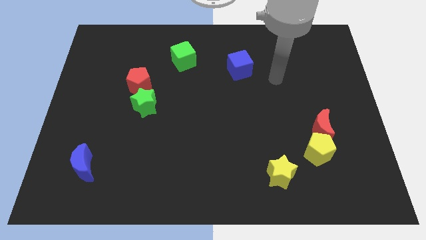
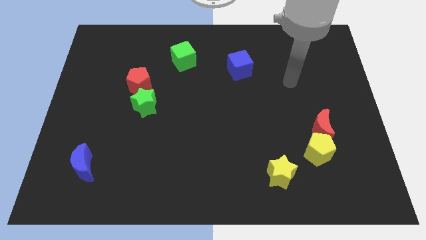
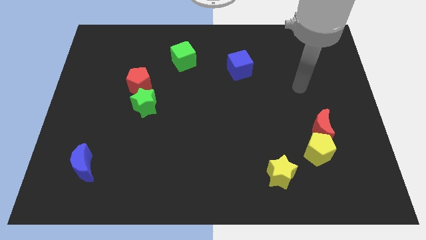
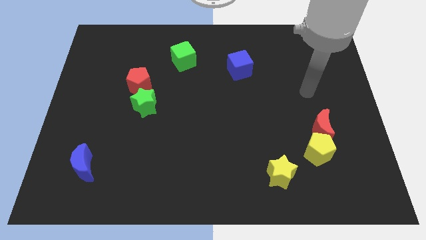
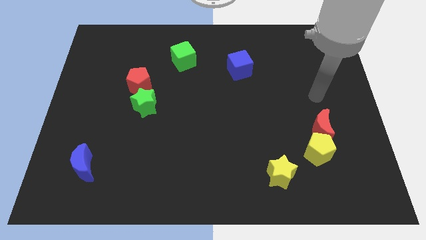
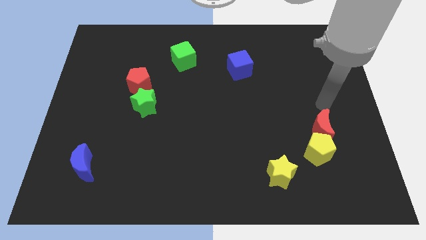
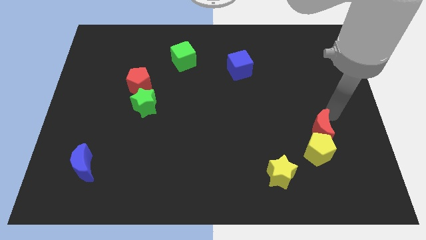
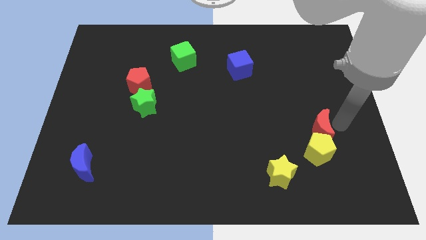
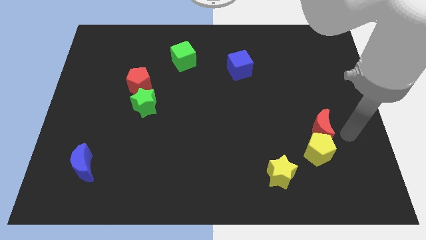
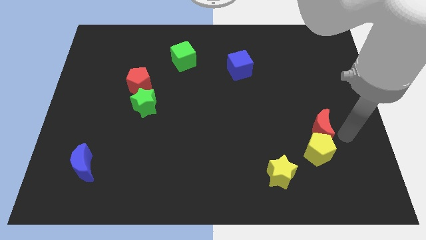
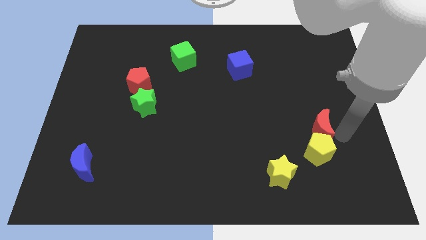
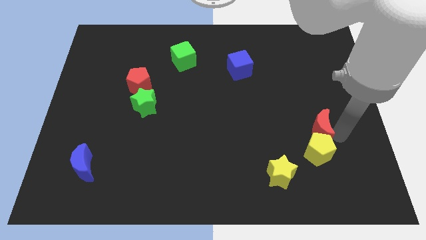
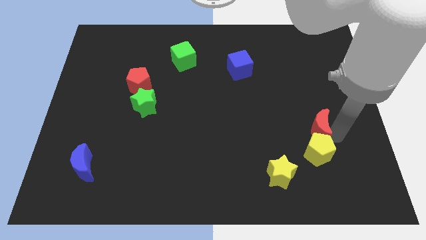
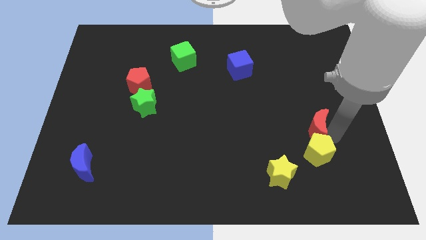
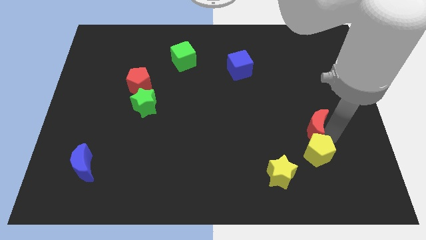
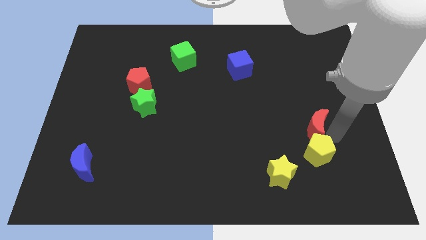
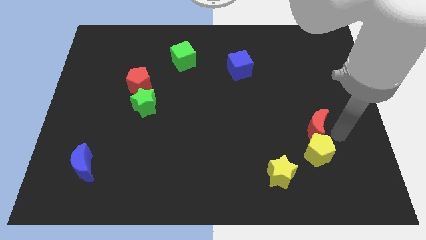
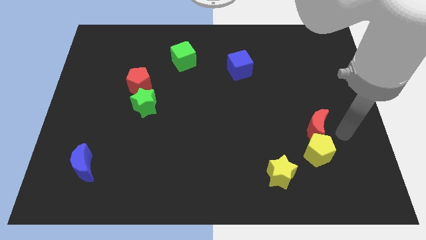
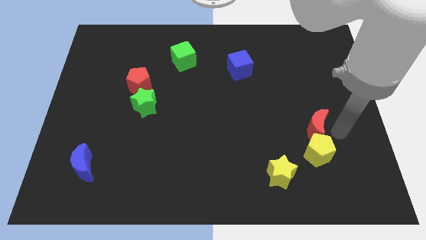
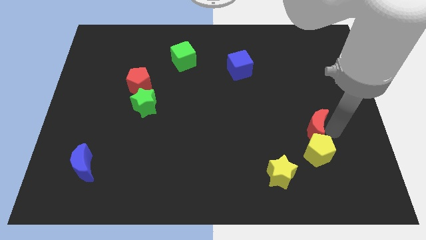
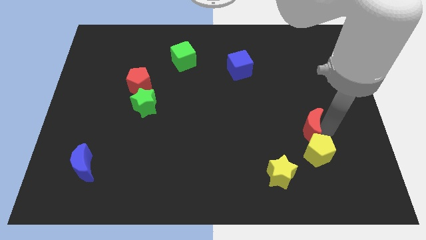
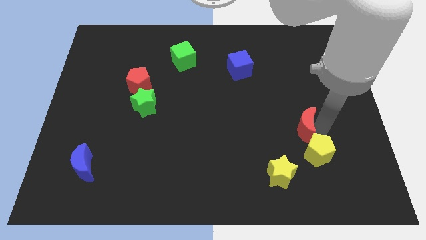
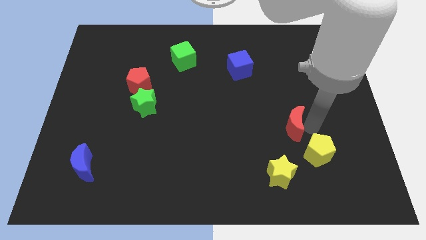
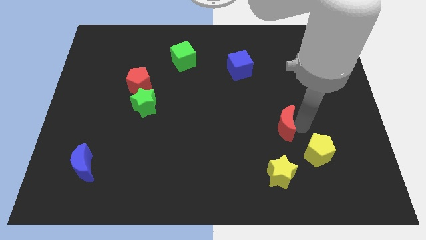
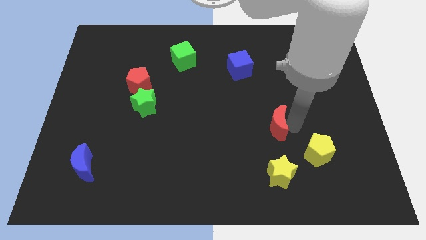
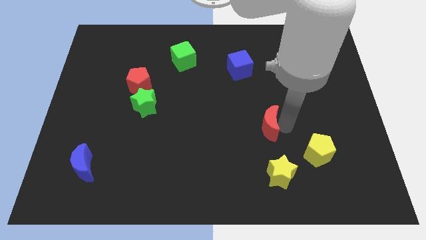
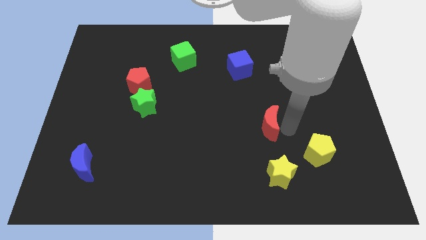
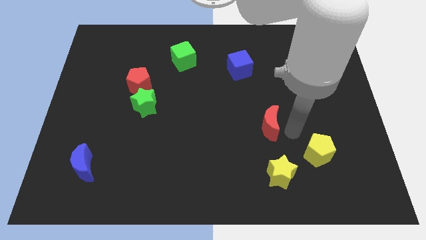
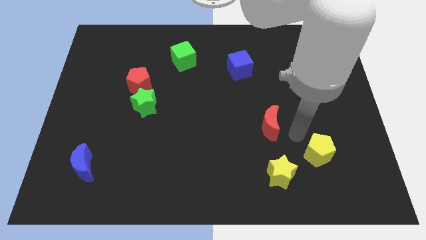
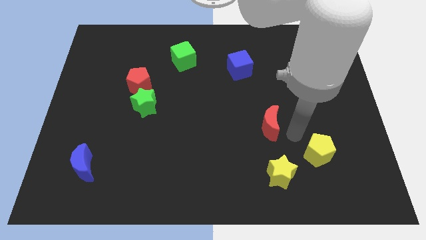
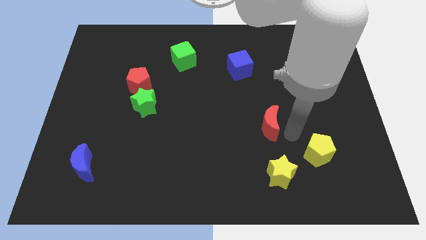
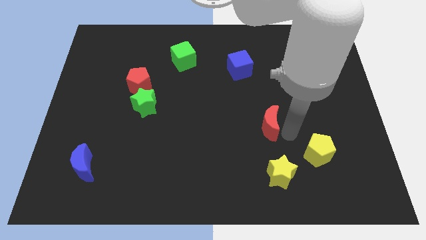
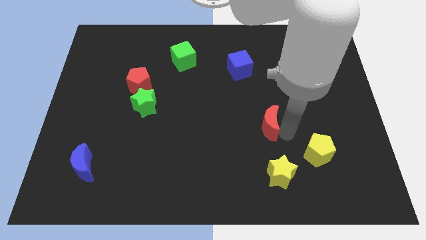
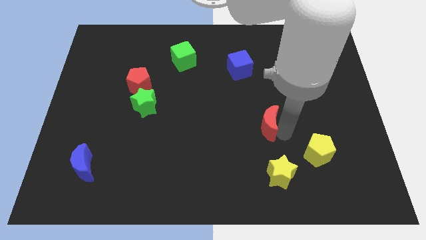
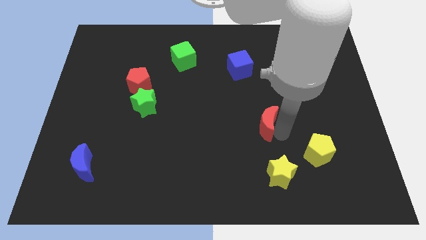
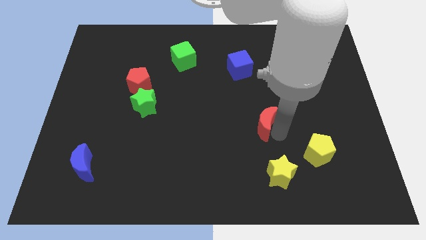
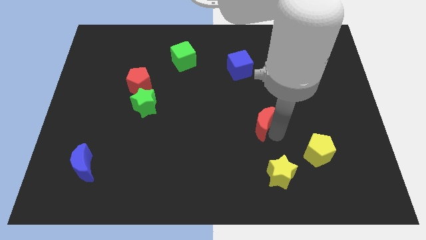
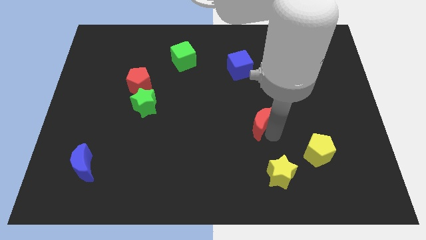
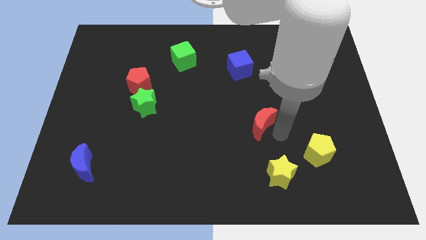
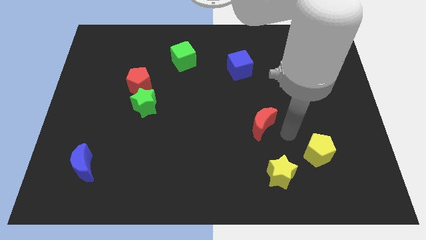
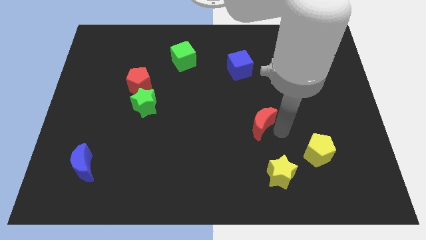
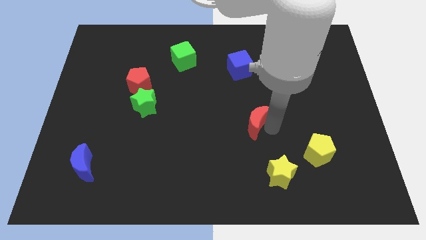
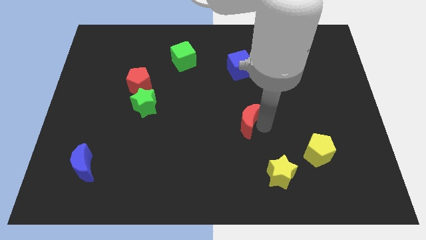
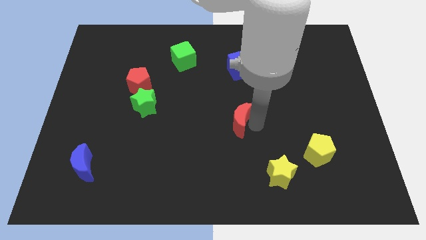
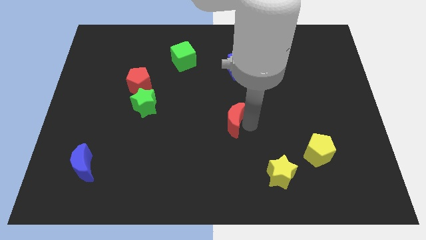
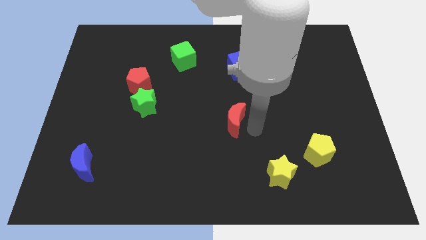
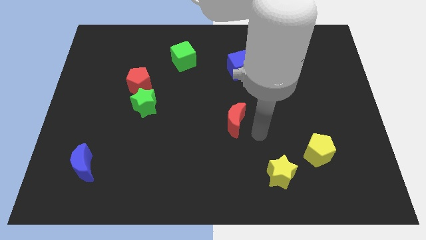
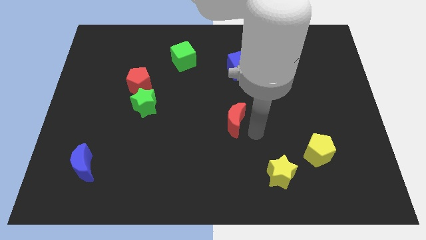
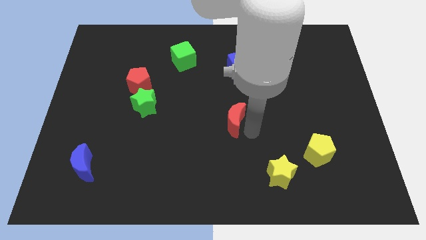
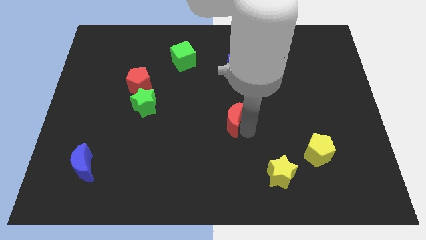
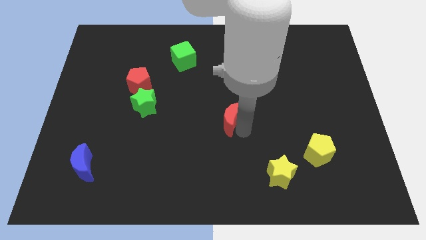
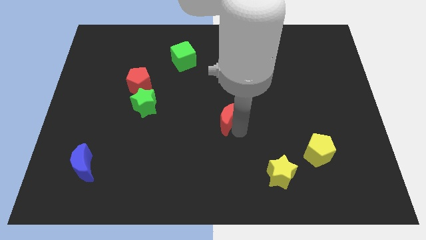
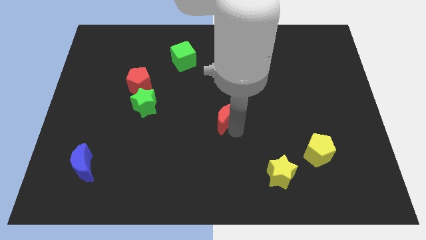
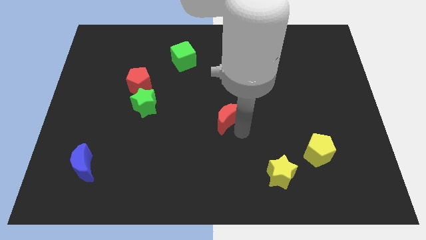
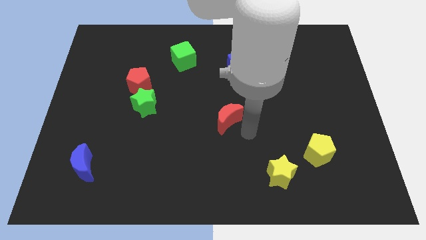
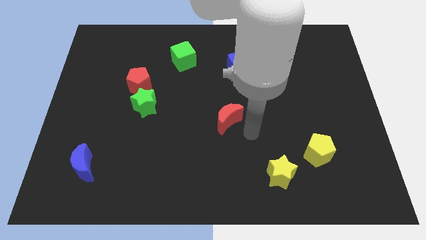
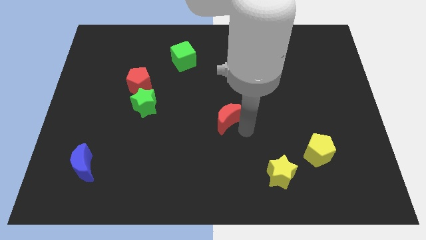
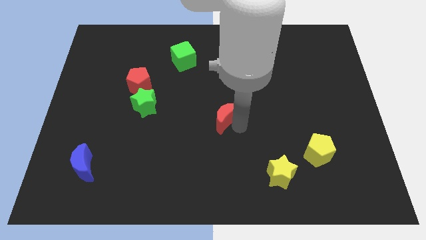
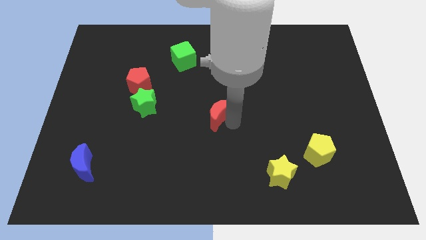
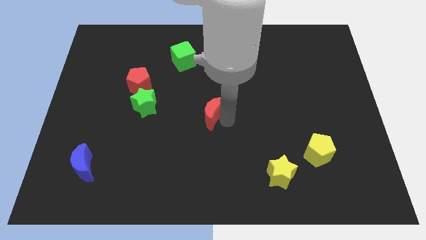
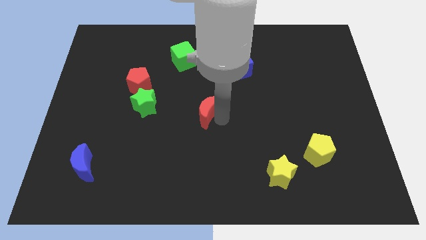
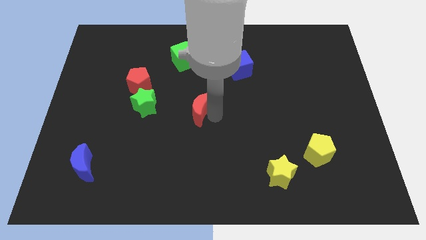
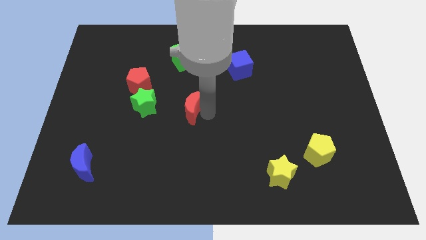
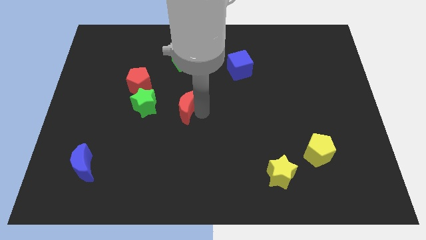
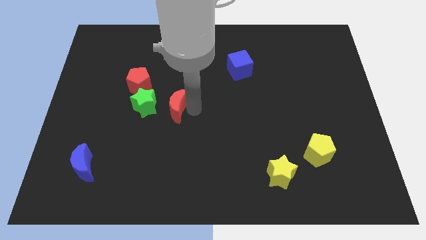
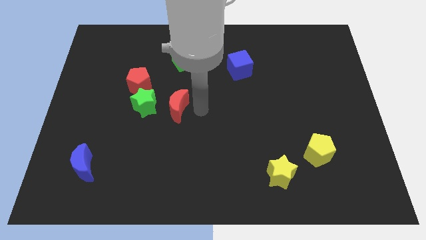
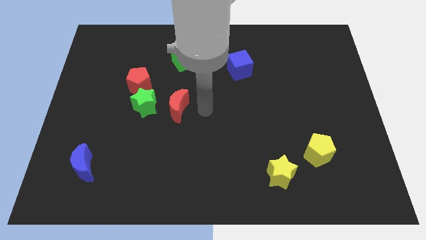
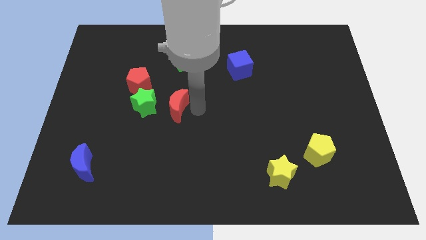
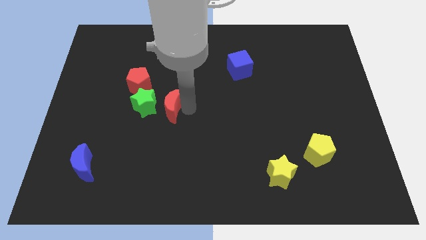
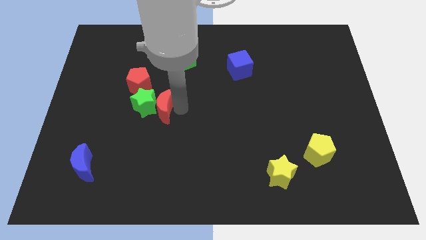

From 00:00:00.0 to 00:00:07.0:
slide the red moon next to the green star

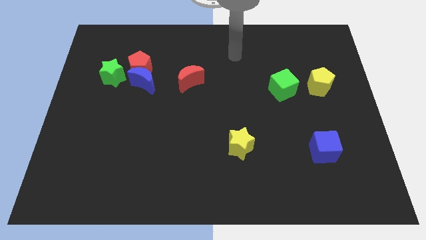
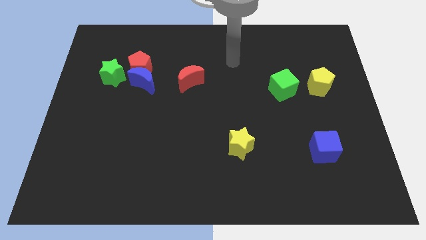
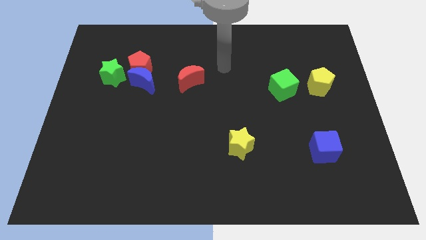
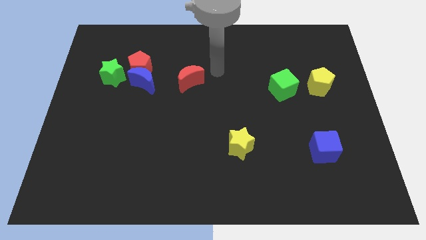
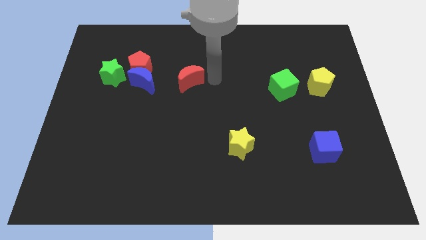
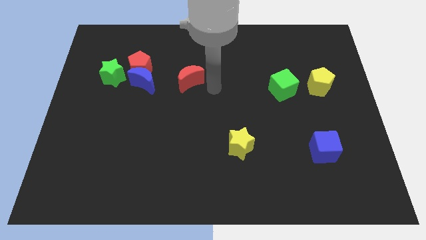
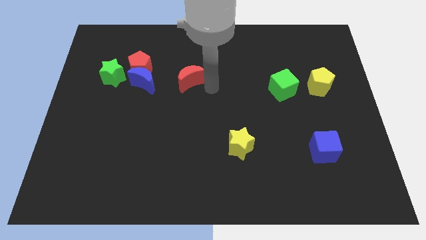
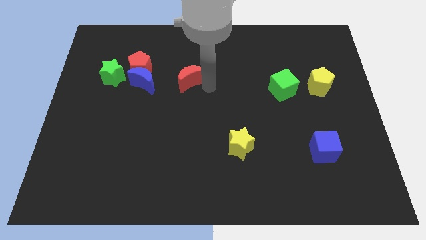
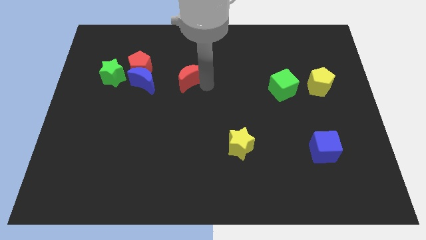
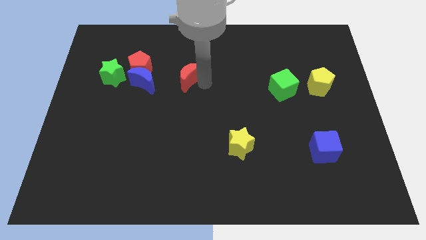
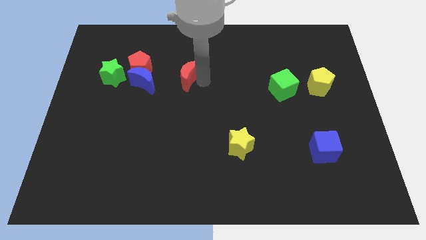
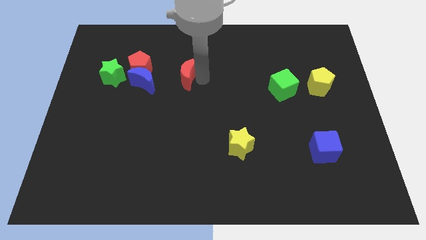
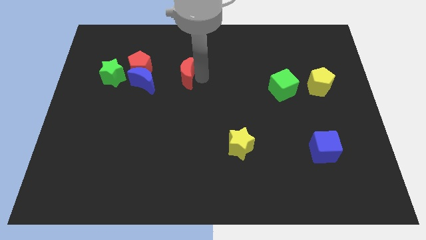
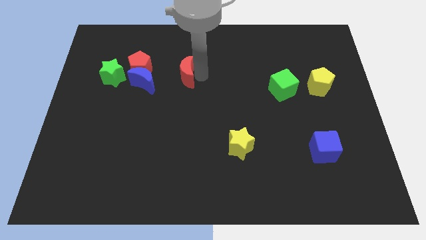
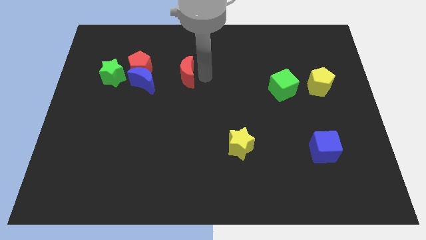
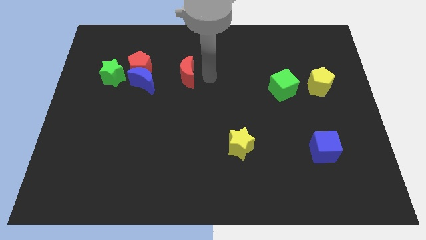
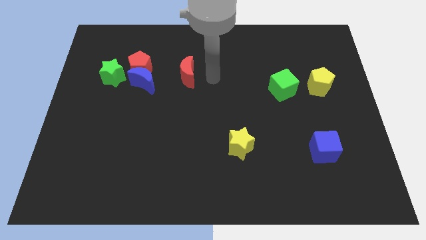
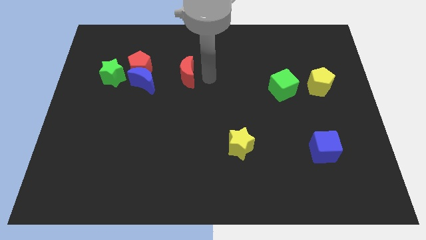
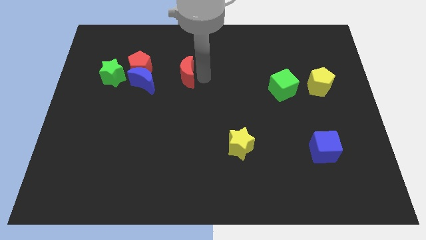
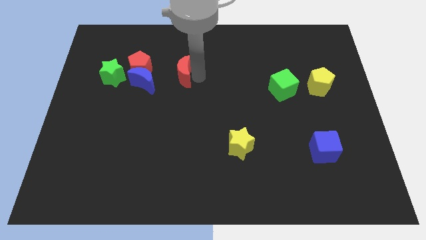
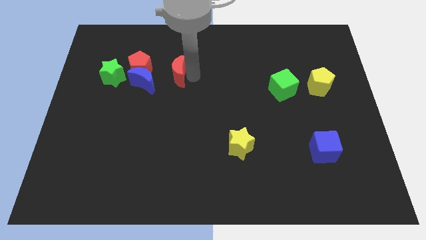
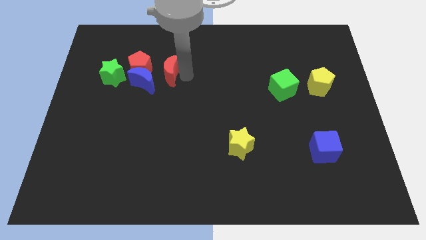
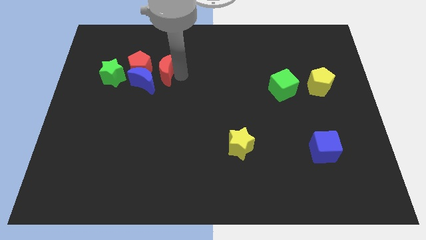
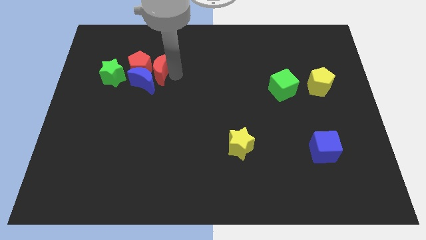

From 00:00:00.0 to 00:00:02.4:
put the red moon to the red pentagon
